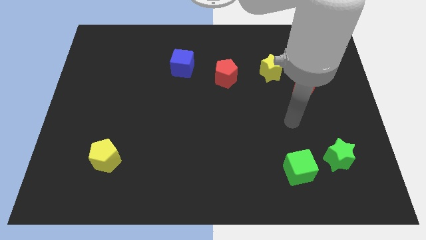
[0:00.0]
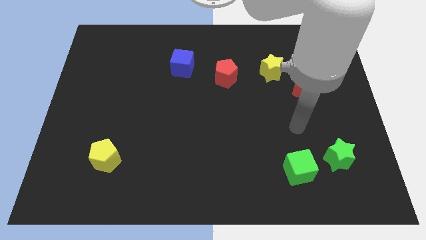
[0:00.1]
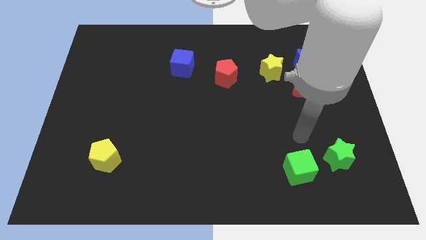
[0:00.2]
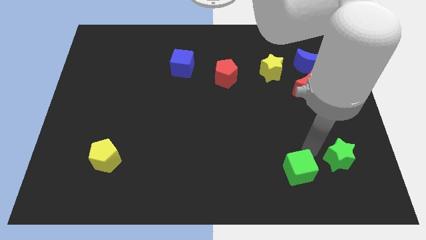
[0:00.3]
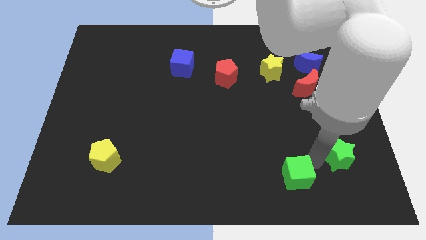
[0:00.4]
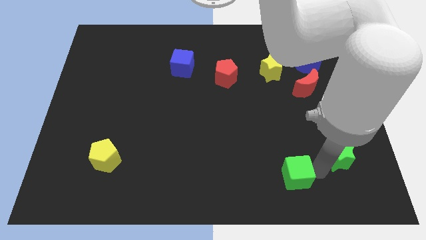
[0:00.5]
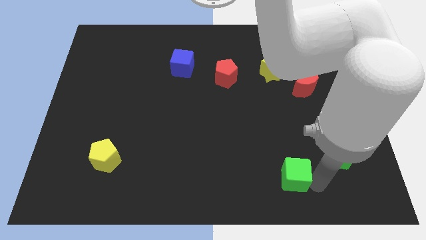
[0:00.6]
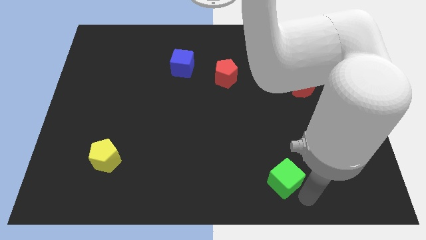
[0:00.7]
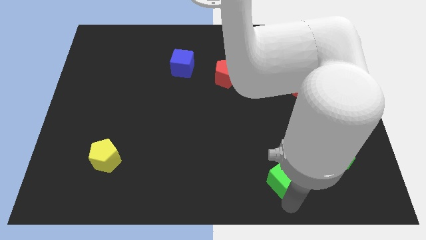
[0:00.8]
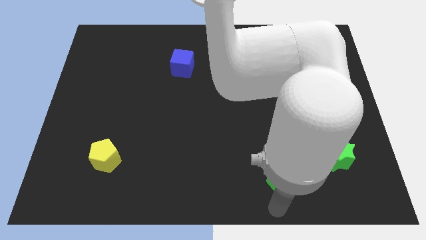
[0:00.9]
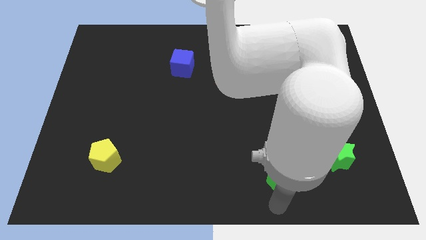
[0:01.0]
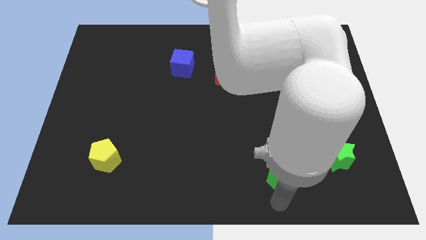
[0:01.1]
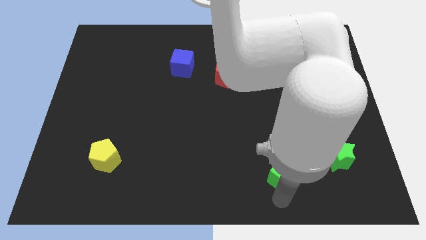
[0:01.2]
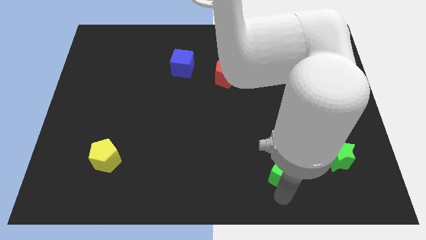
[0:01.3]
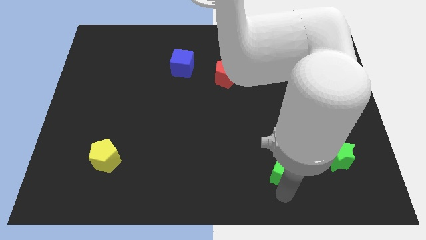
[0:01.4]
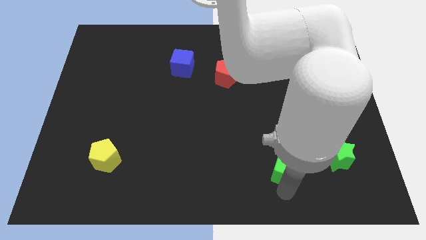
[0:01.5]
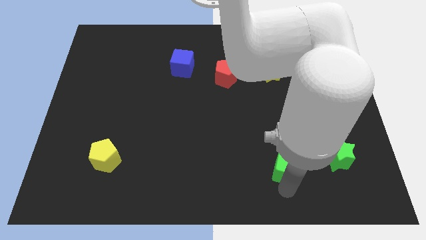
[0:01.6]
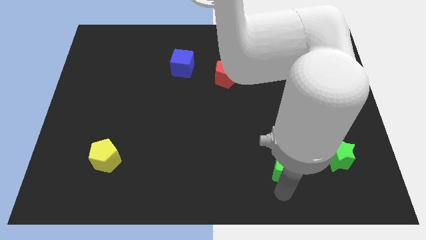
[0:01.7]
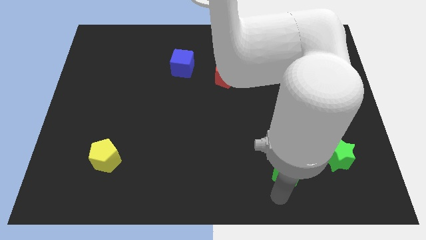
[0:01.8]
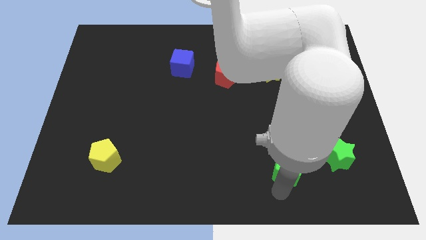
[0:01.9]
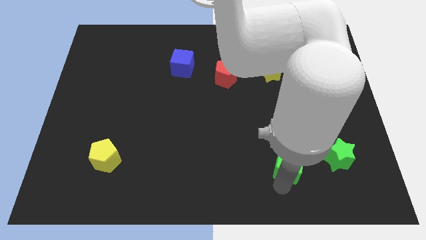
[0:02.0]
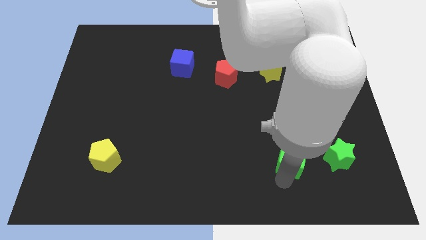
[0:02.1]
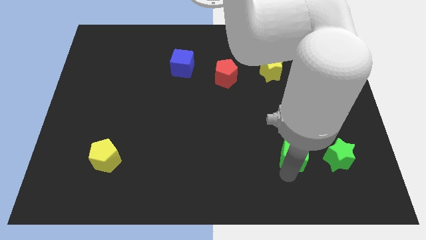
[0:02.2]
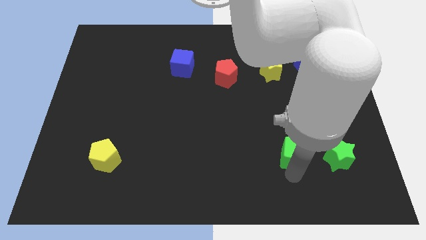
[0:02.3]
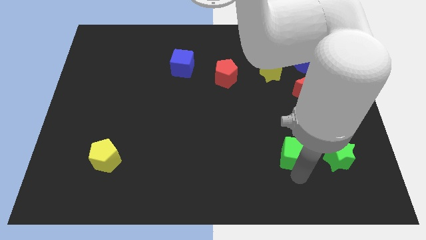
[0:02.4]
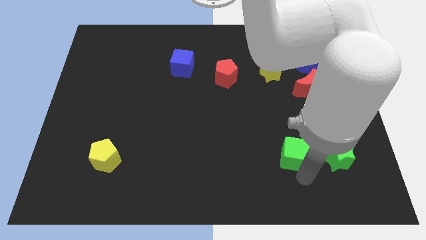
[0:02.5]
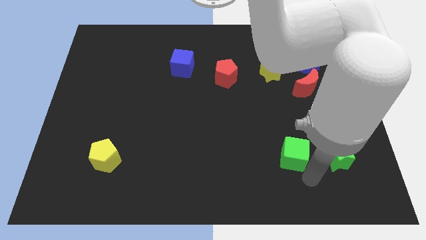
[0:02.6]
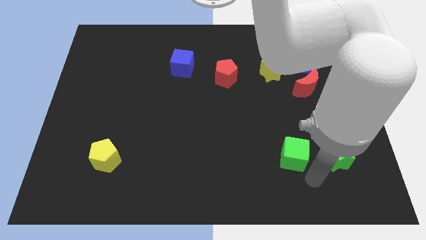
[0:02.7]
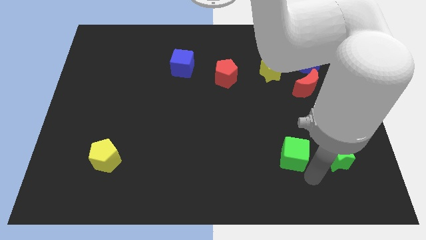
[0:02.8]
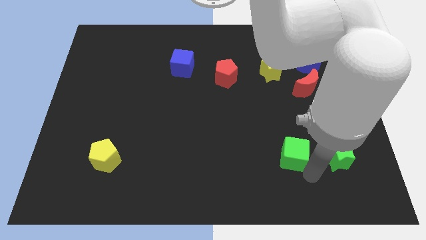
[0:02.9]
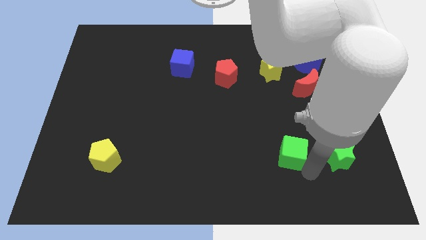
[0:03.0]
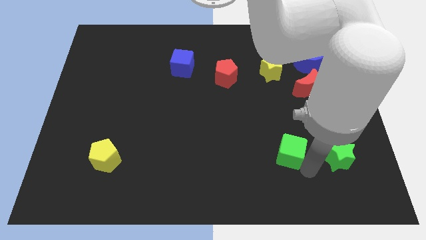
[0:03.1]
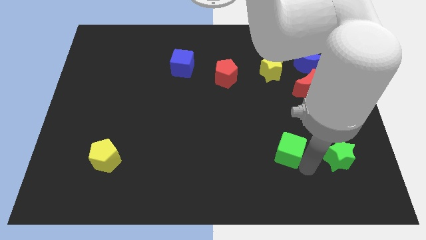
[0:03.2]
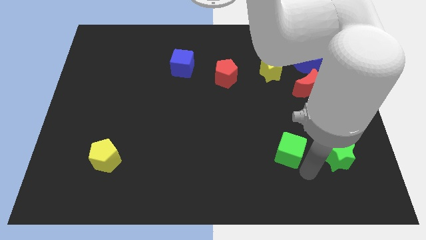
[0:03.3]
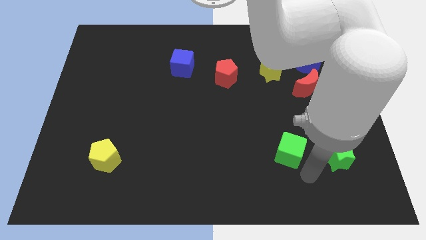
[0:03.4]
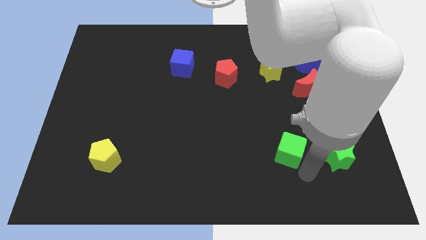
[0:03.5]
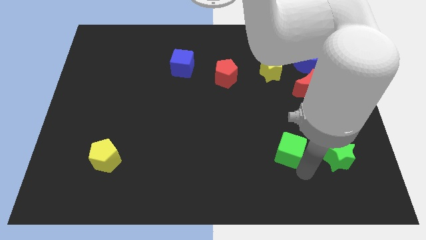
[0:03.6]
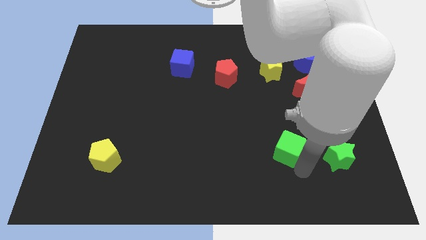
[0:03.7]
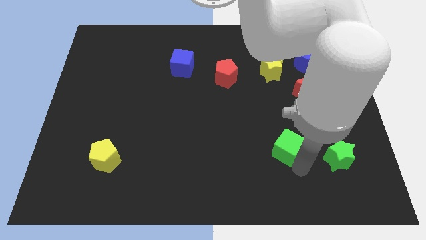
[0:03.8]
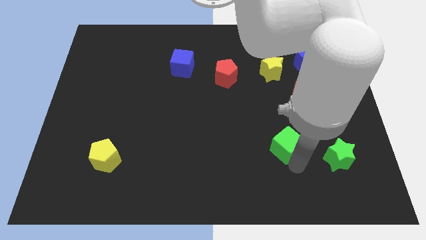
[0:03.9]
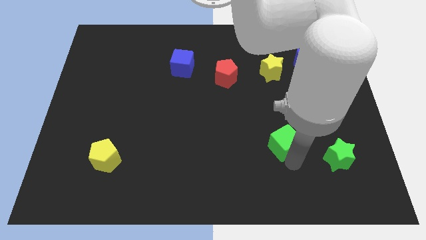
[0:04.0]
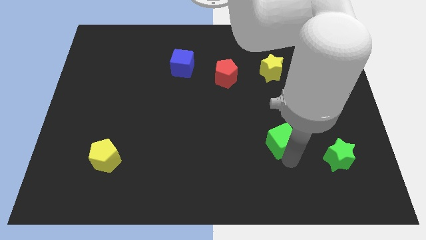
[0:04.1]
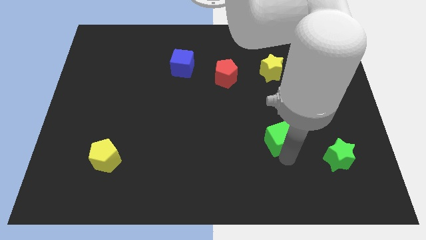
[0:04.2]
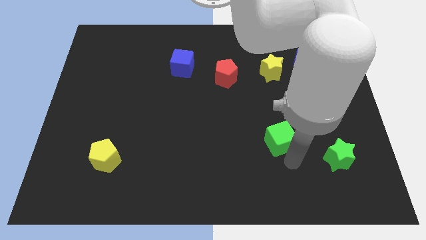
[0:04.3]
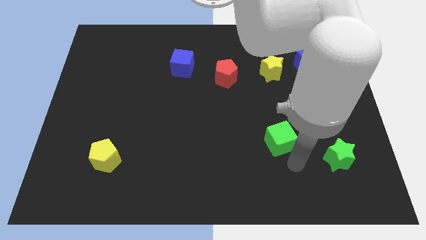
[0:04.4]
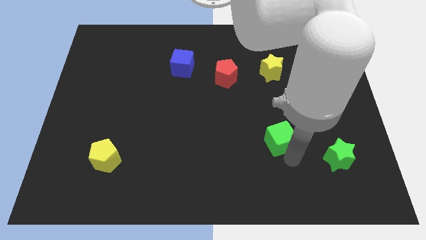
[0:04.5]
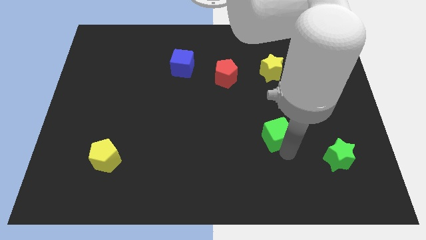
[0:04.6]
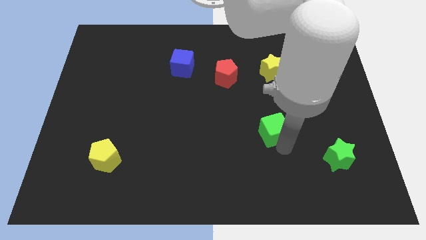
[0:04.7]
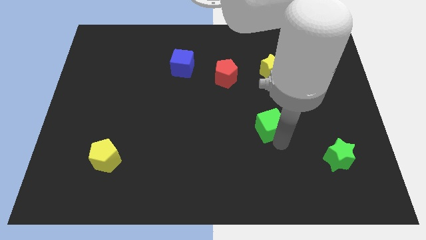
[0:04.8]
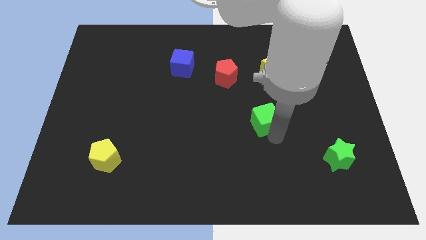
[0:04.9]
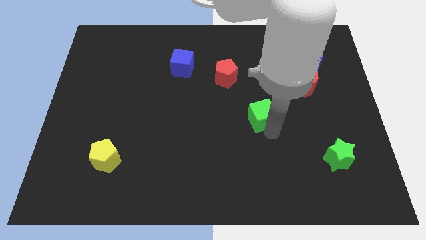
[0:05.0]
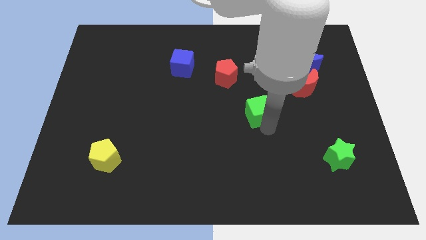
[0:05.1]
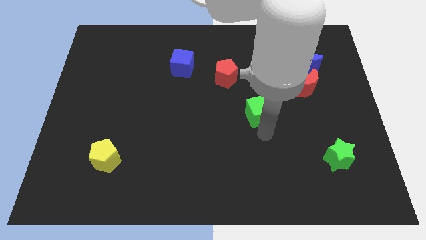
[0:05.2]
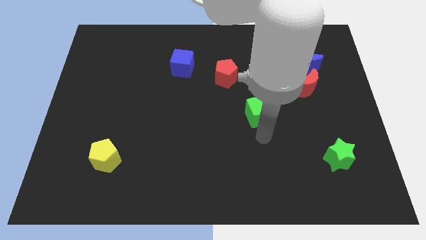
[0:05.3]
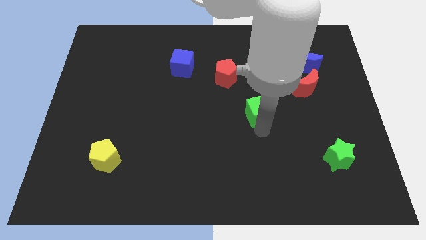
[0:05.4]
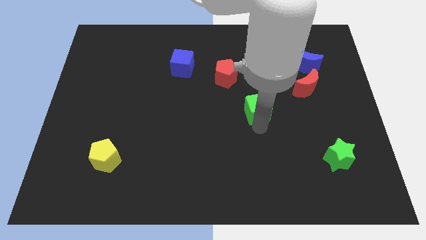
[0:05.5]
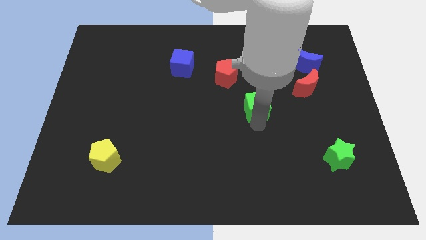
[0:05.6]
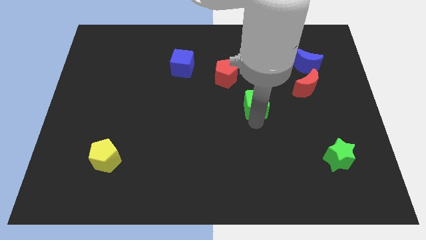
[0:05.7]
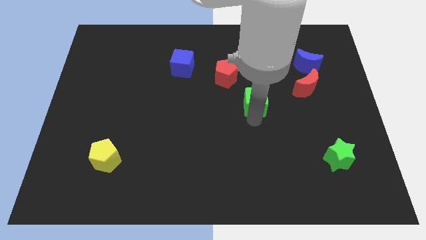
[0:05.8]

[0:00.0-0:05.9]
move the green cube to the bottom left side of the yellow star

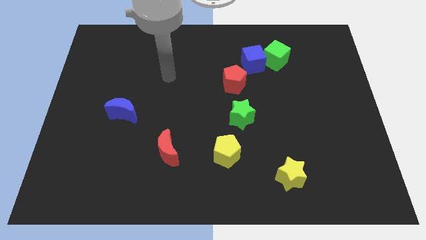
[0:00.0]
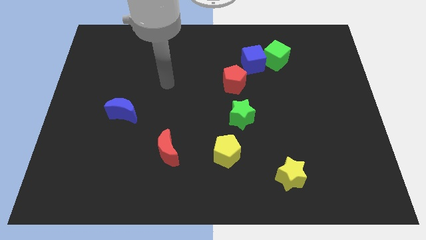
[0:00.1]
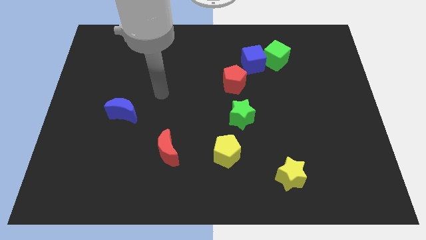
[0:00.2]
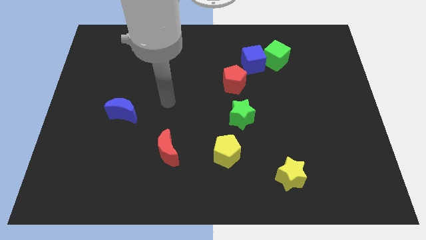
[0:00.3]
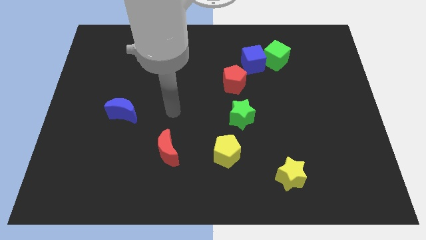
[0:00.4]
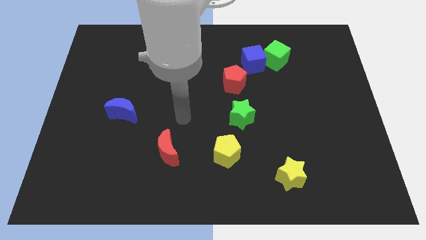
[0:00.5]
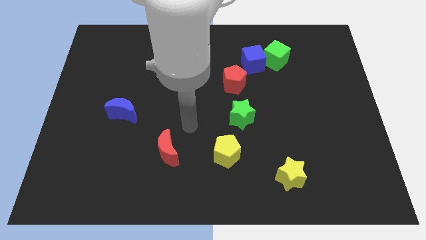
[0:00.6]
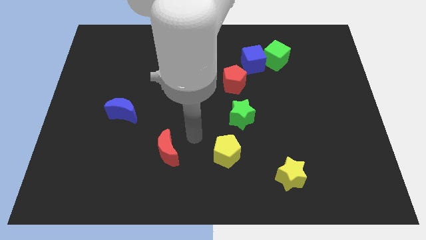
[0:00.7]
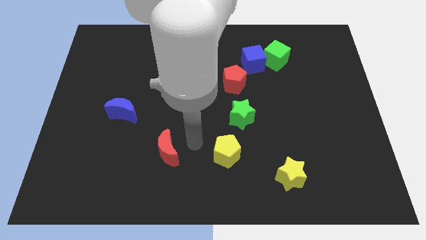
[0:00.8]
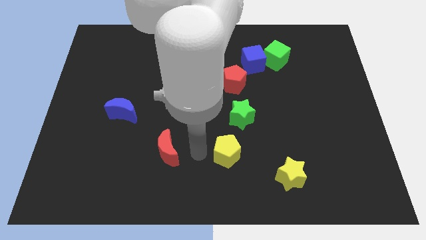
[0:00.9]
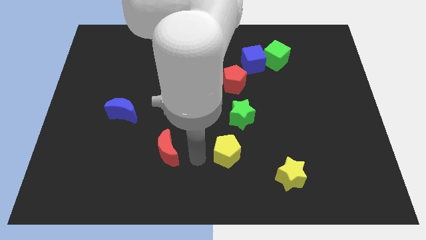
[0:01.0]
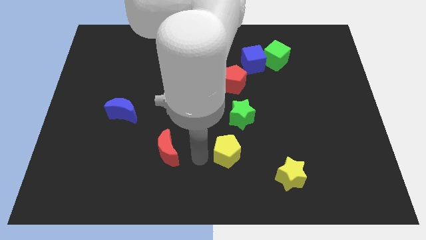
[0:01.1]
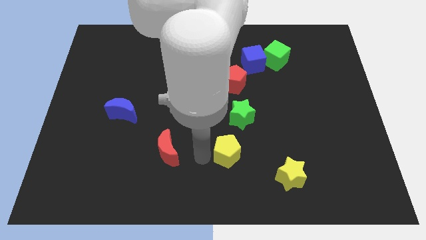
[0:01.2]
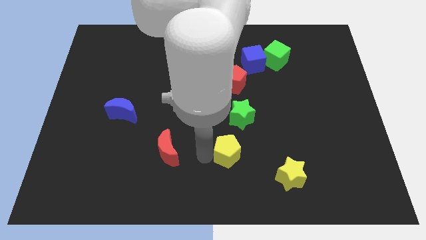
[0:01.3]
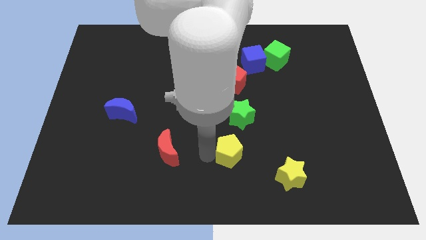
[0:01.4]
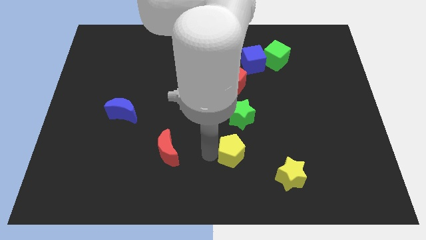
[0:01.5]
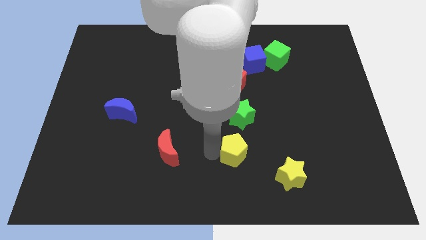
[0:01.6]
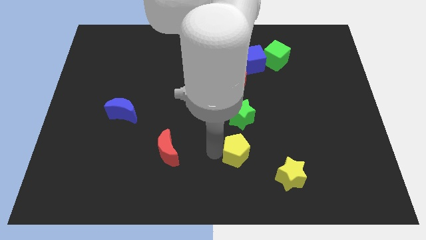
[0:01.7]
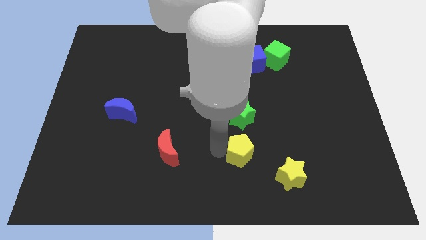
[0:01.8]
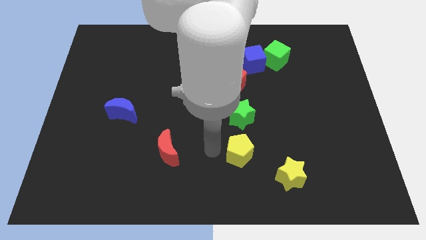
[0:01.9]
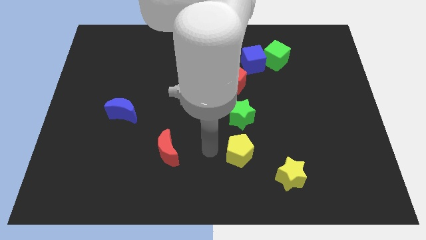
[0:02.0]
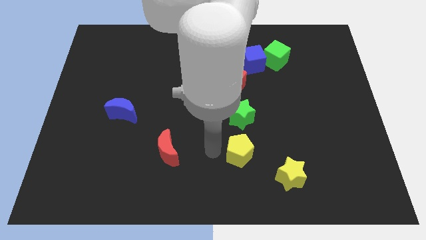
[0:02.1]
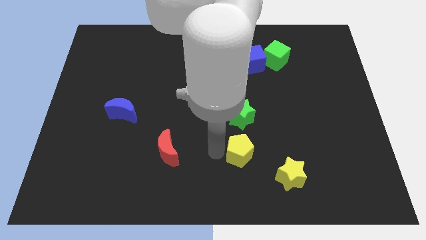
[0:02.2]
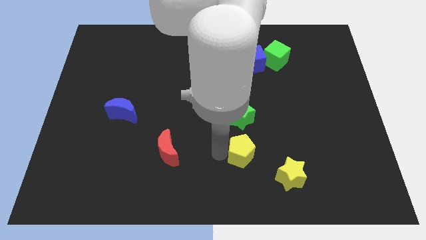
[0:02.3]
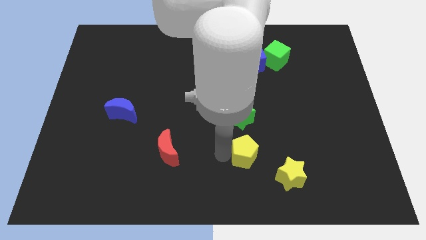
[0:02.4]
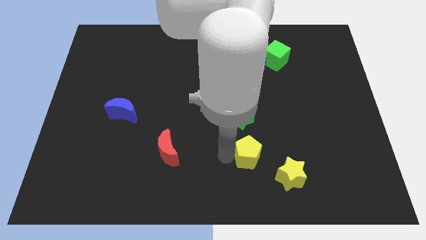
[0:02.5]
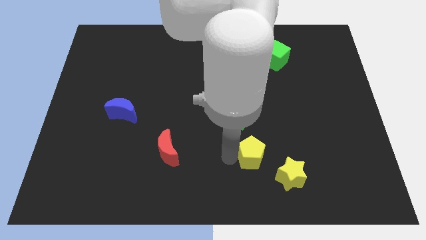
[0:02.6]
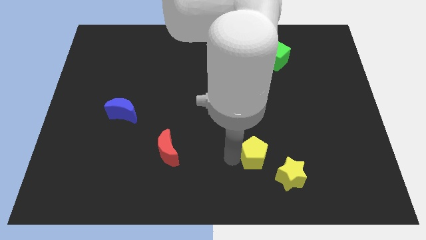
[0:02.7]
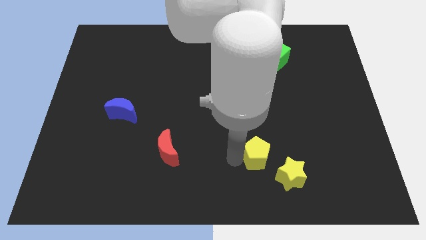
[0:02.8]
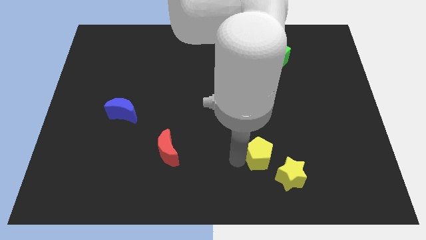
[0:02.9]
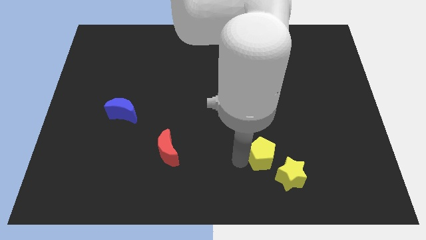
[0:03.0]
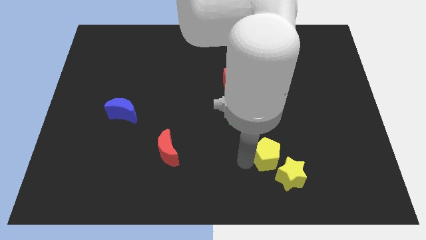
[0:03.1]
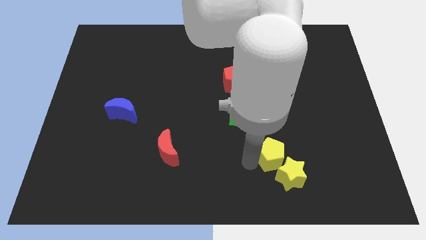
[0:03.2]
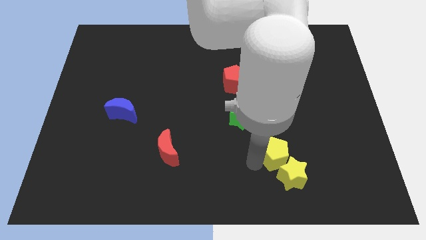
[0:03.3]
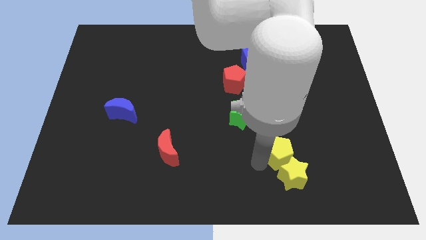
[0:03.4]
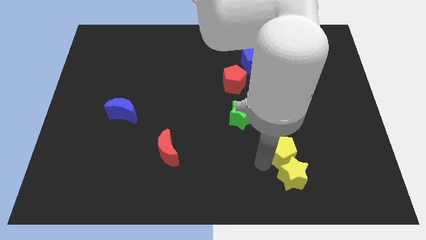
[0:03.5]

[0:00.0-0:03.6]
slide the yellow pentagon to the top right side of the yellow star
